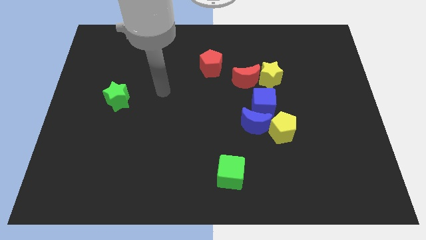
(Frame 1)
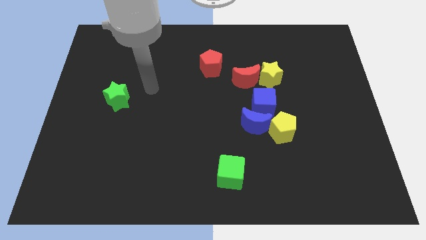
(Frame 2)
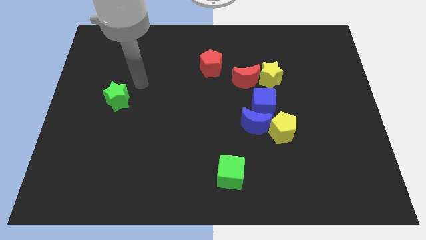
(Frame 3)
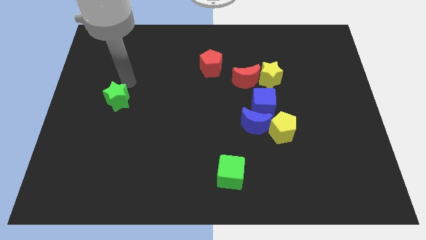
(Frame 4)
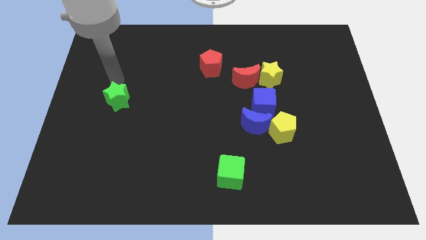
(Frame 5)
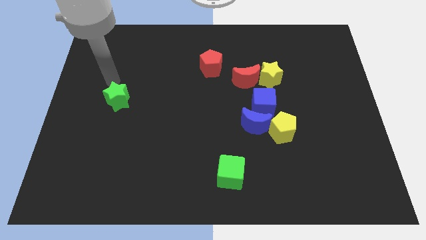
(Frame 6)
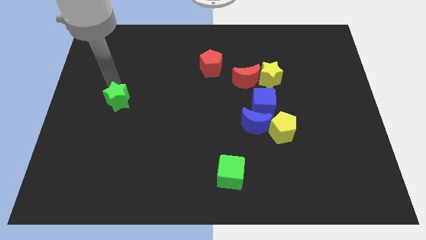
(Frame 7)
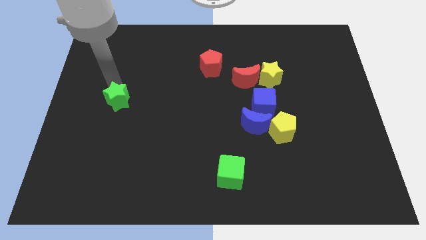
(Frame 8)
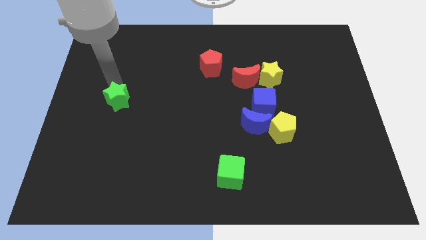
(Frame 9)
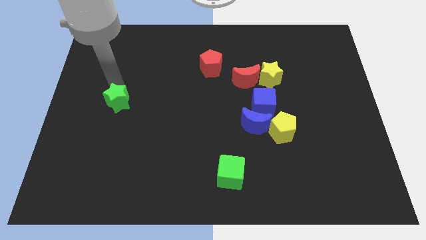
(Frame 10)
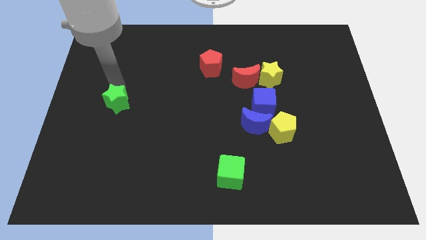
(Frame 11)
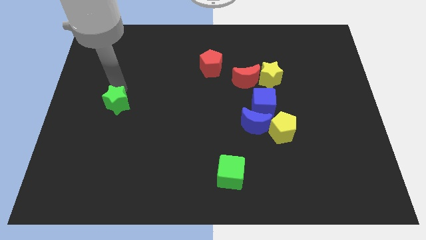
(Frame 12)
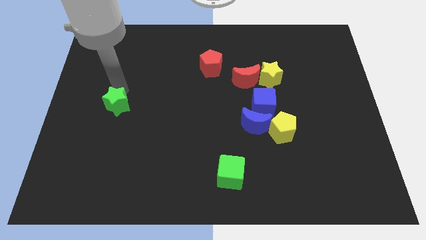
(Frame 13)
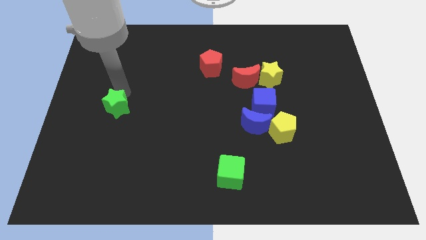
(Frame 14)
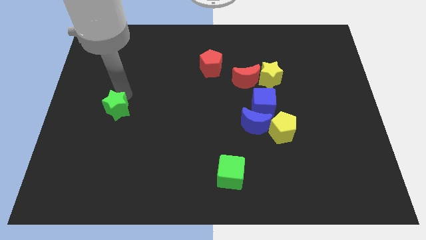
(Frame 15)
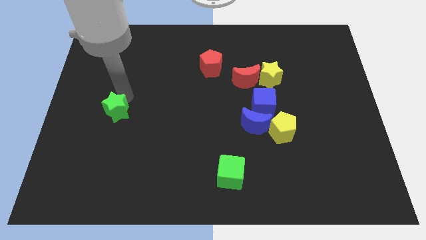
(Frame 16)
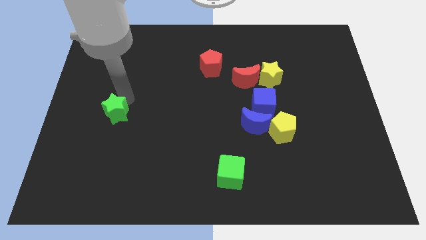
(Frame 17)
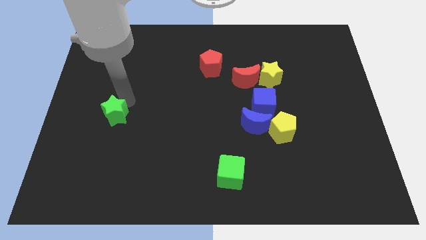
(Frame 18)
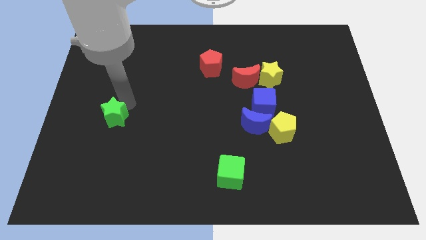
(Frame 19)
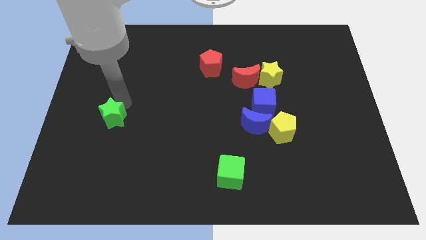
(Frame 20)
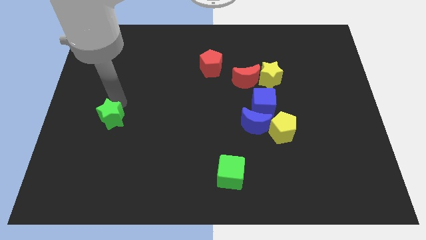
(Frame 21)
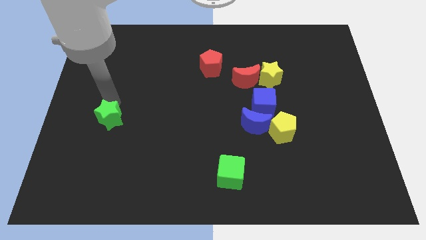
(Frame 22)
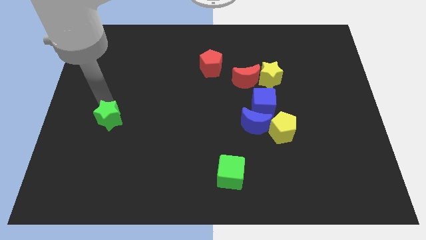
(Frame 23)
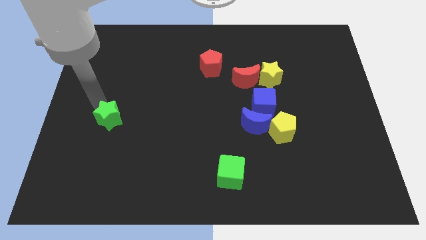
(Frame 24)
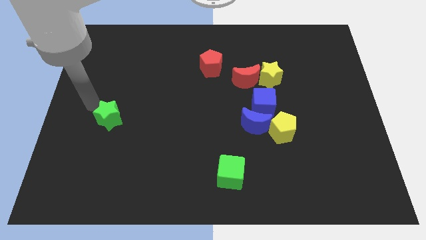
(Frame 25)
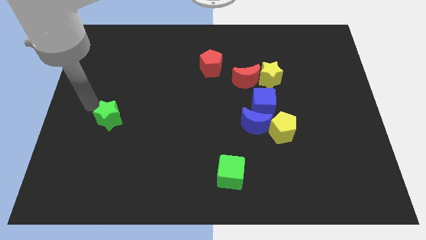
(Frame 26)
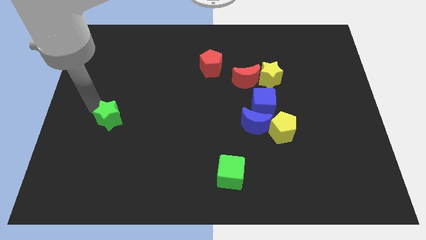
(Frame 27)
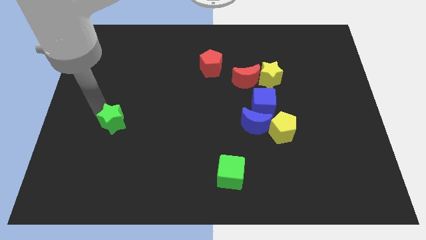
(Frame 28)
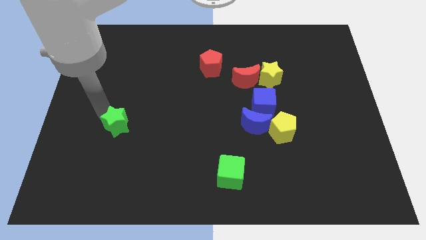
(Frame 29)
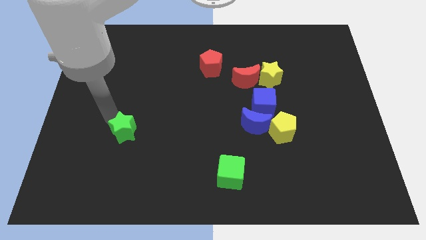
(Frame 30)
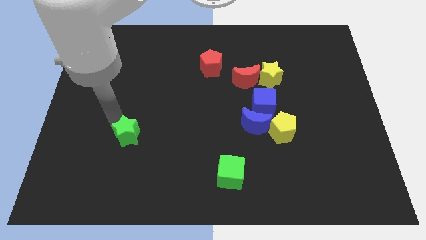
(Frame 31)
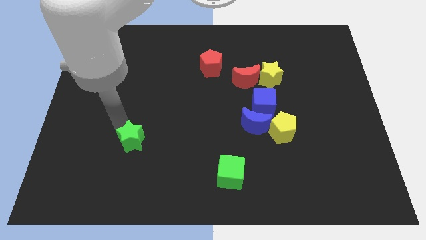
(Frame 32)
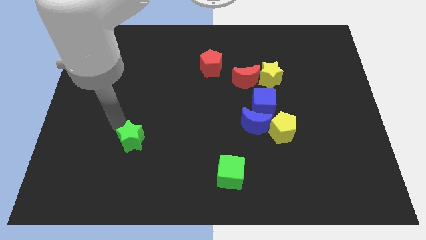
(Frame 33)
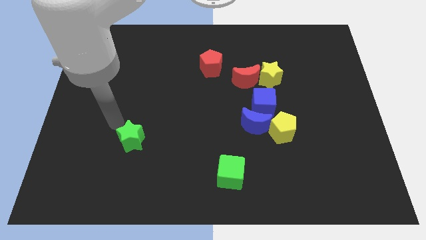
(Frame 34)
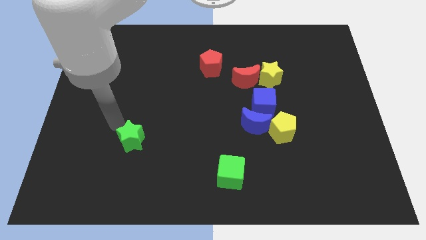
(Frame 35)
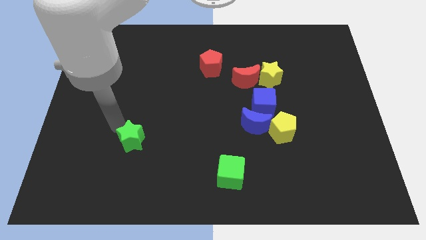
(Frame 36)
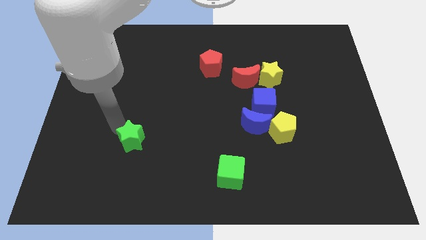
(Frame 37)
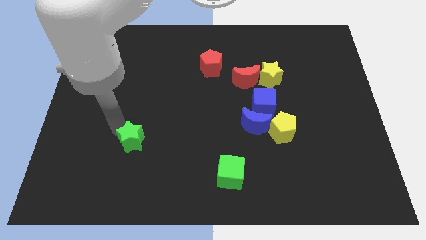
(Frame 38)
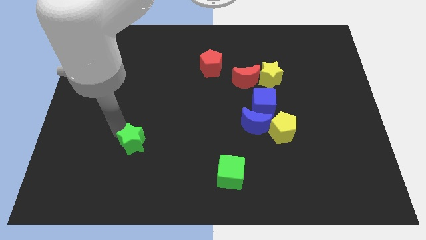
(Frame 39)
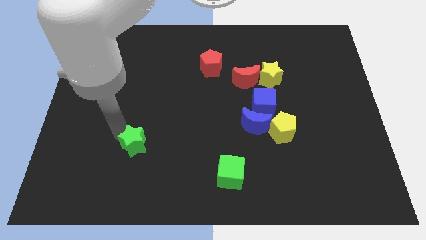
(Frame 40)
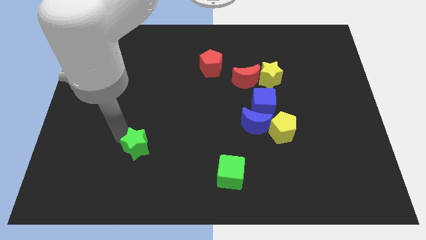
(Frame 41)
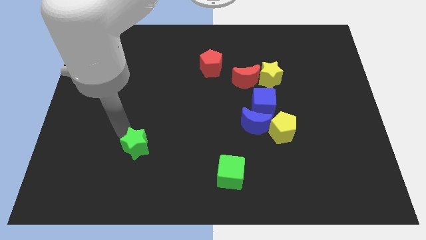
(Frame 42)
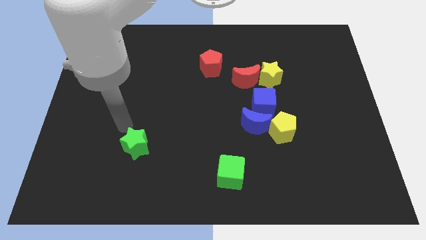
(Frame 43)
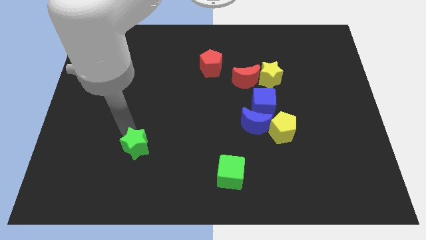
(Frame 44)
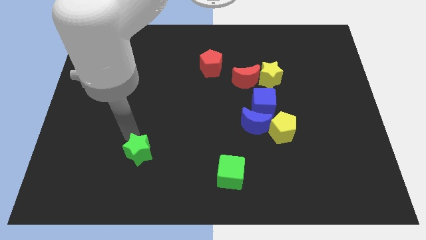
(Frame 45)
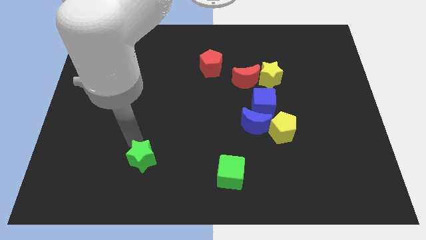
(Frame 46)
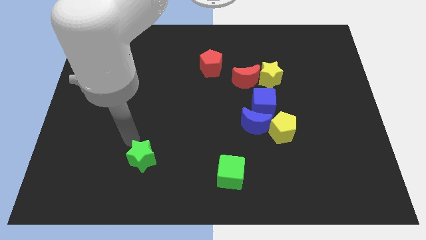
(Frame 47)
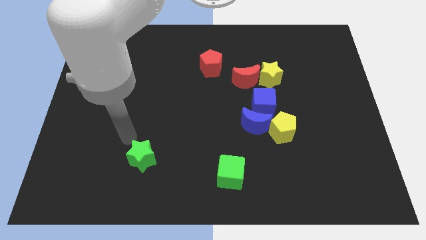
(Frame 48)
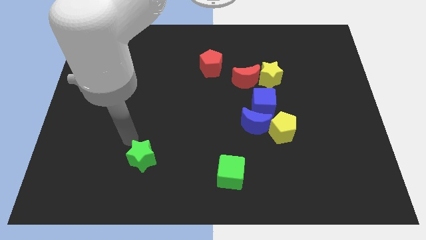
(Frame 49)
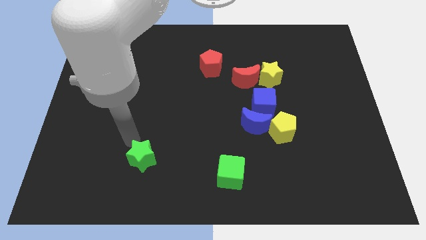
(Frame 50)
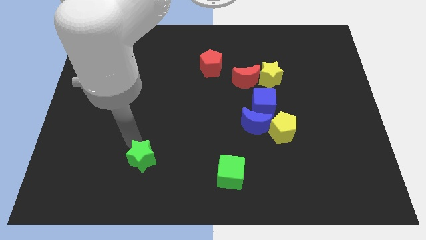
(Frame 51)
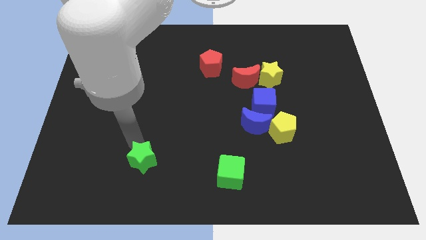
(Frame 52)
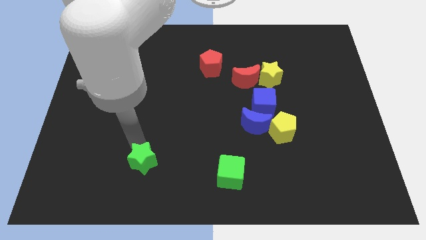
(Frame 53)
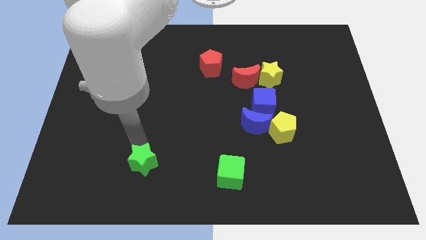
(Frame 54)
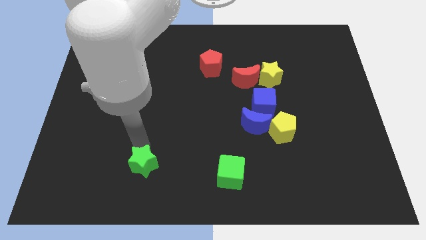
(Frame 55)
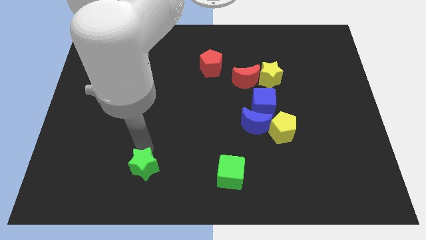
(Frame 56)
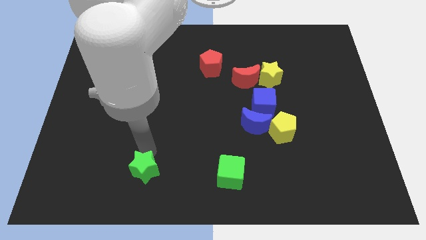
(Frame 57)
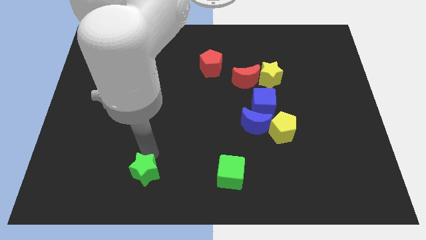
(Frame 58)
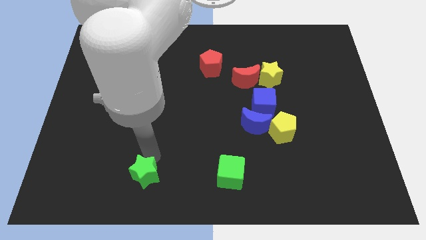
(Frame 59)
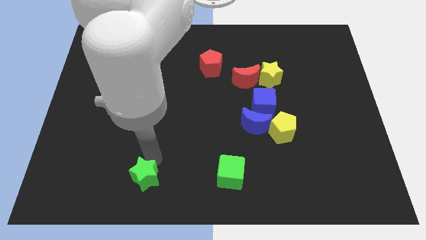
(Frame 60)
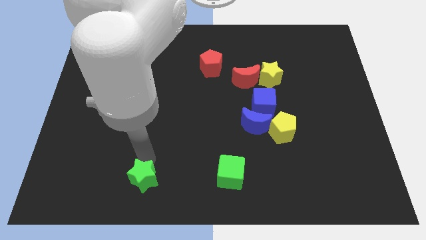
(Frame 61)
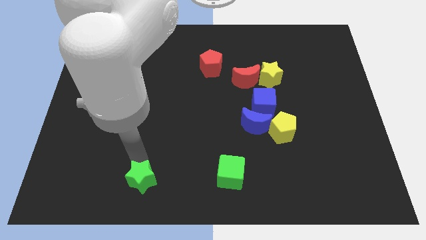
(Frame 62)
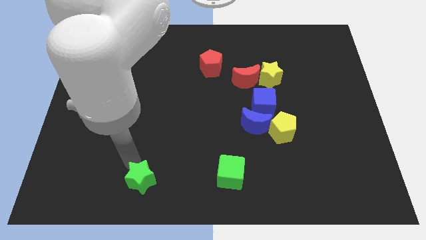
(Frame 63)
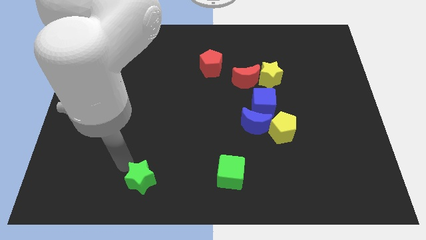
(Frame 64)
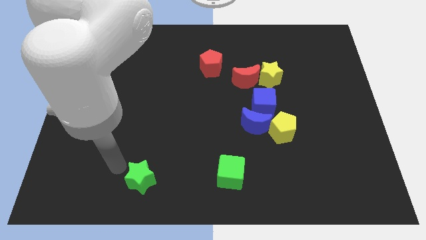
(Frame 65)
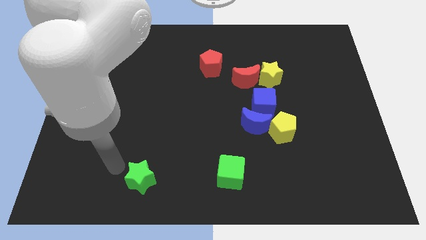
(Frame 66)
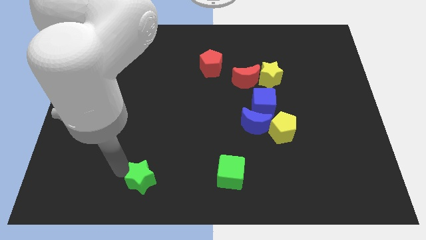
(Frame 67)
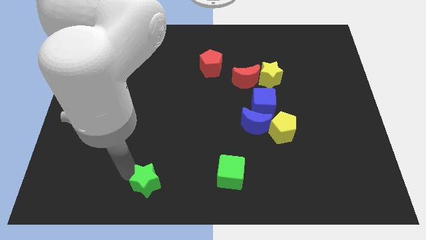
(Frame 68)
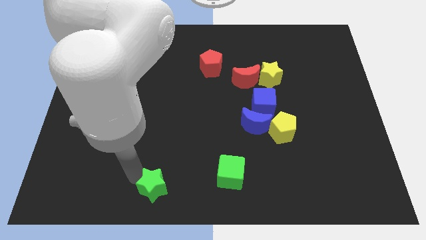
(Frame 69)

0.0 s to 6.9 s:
put the green star to the bottom side
